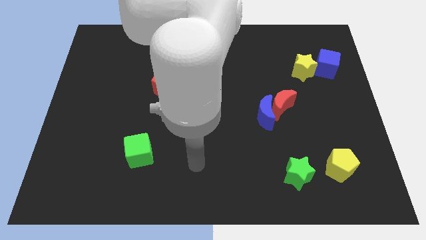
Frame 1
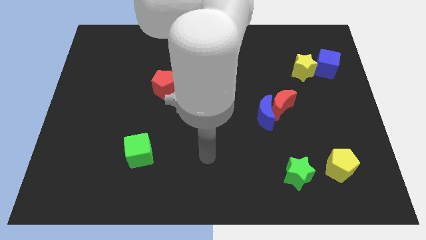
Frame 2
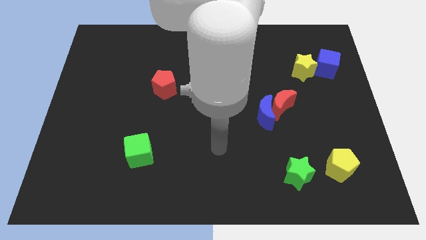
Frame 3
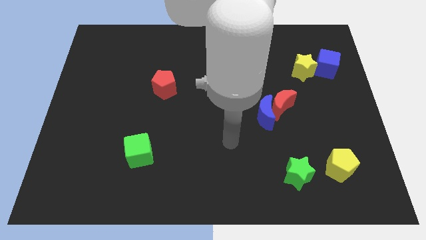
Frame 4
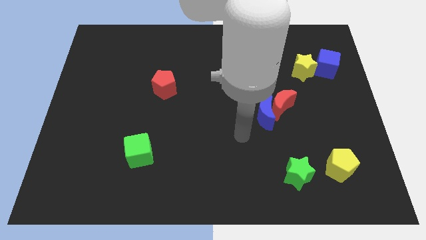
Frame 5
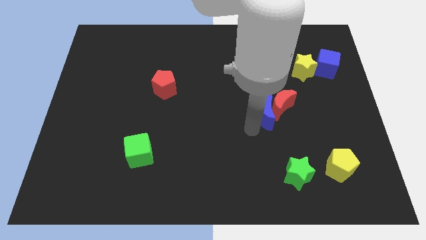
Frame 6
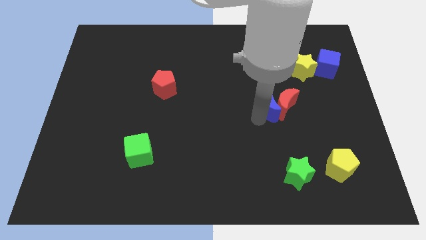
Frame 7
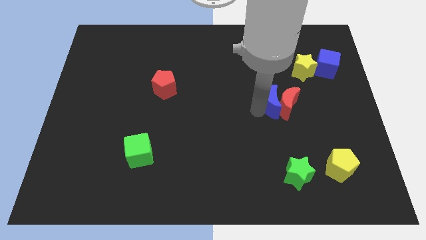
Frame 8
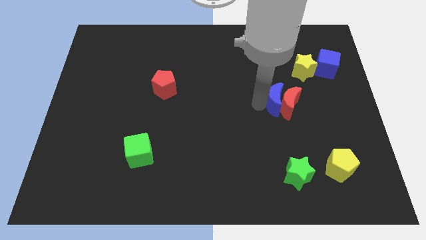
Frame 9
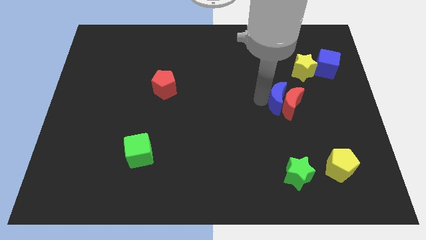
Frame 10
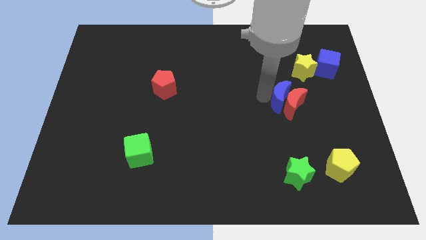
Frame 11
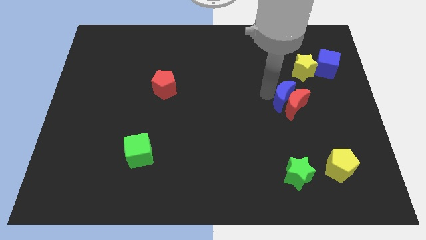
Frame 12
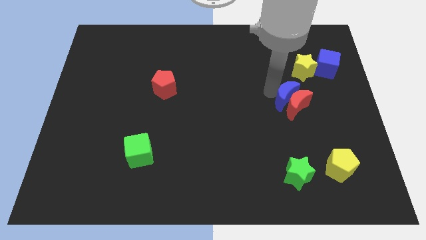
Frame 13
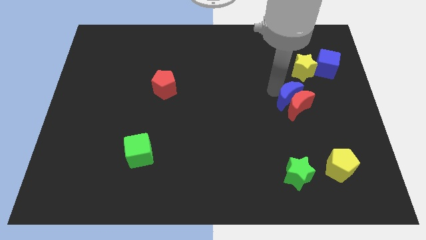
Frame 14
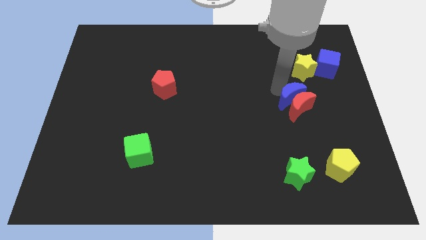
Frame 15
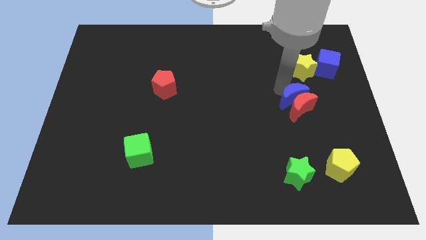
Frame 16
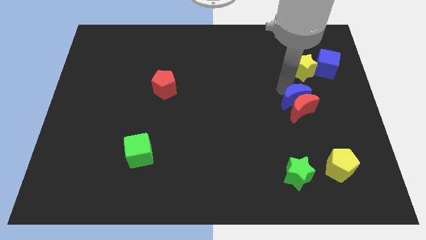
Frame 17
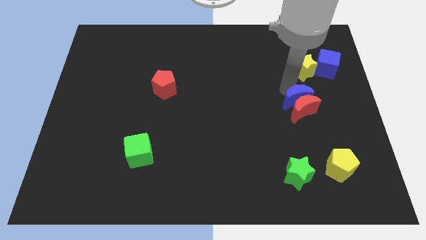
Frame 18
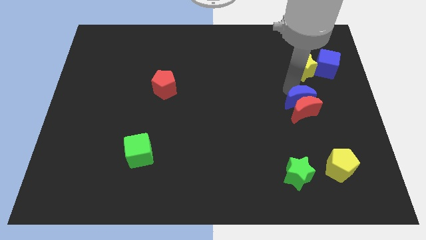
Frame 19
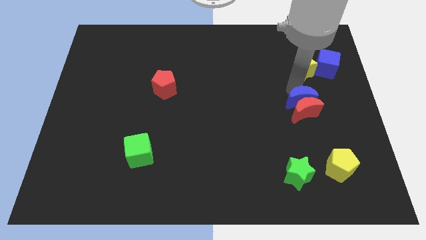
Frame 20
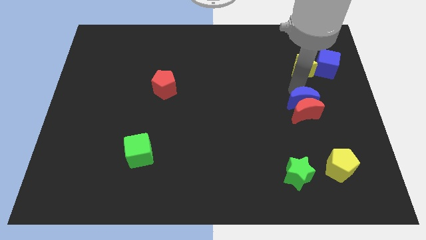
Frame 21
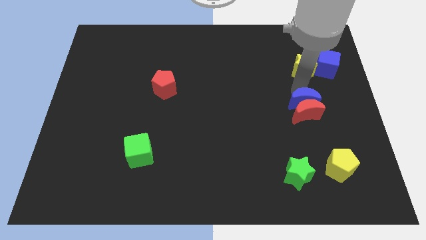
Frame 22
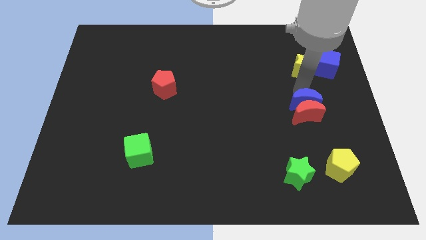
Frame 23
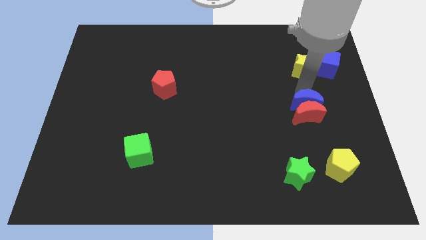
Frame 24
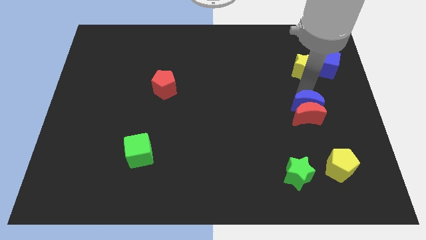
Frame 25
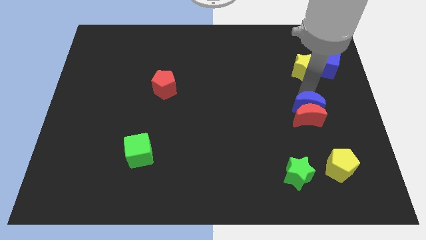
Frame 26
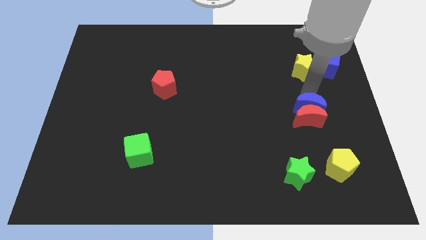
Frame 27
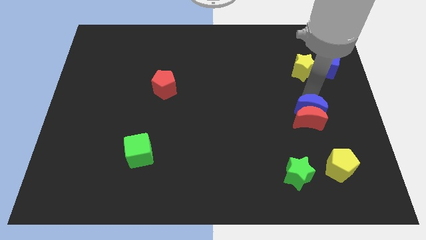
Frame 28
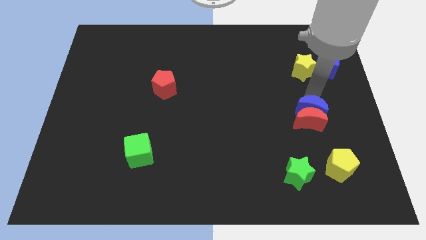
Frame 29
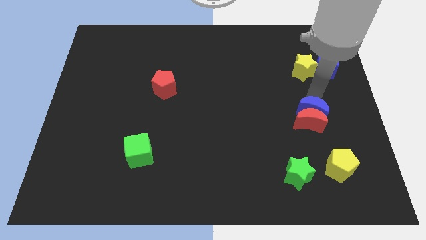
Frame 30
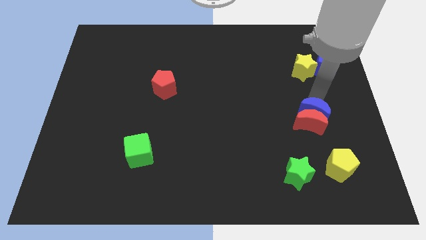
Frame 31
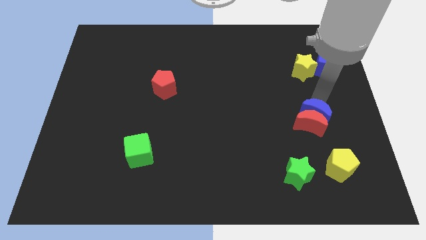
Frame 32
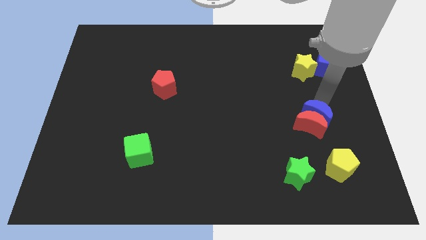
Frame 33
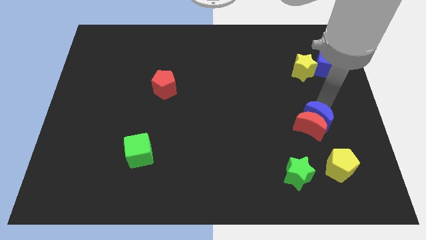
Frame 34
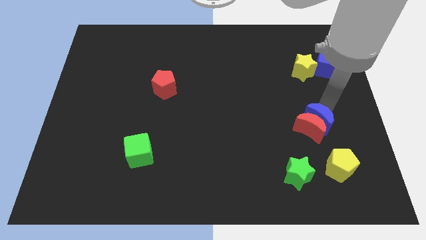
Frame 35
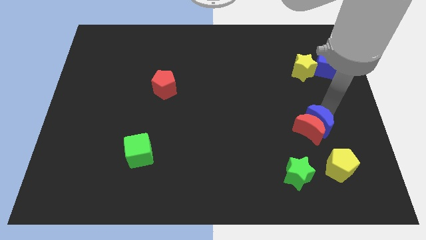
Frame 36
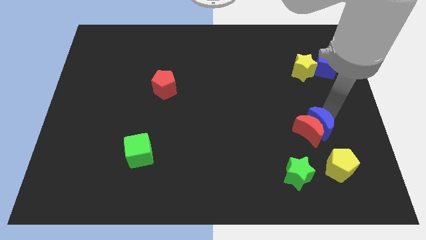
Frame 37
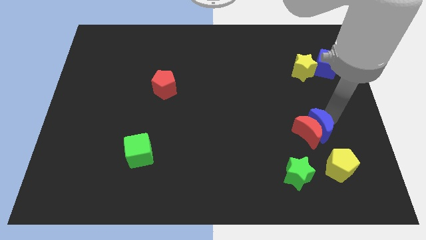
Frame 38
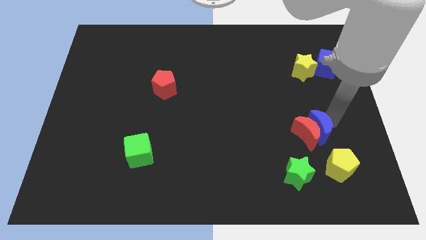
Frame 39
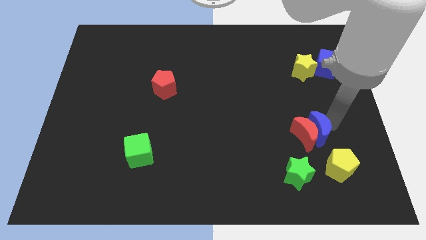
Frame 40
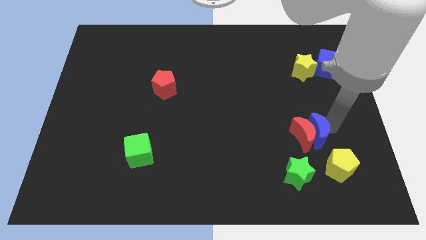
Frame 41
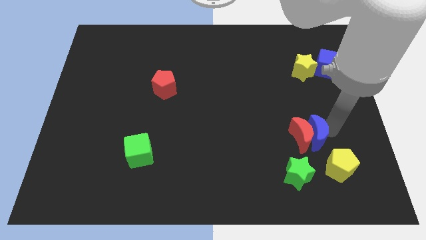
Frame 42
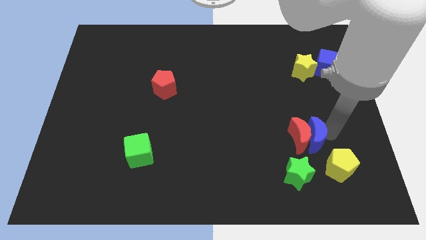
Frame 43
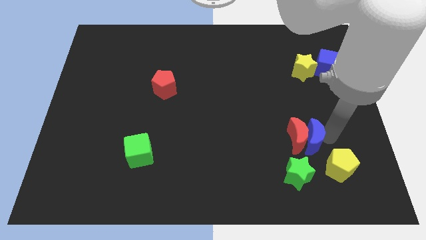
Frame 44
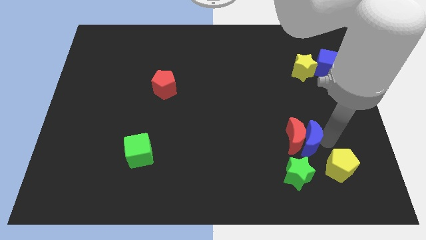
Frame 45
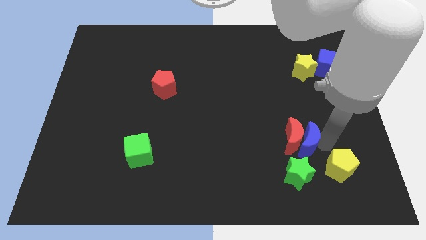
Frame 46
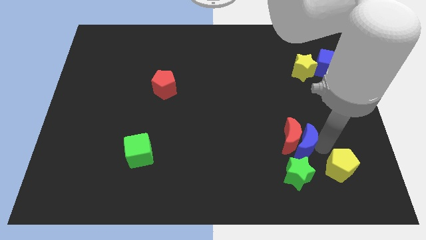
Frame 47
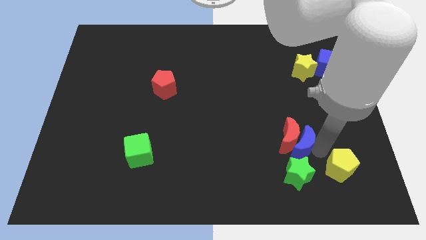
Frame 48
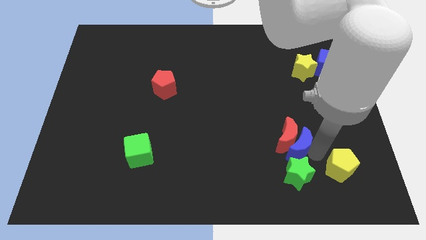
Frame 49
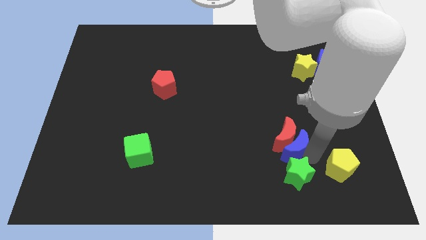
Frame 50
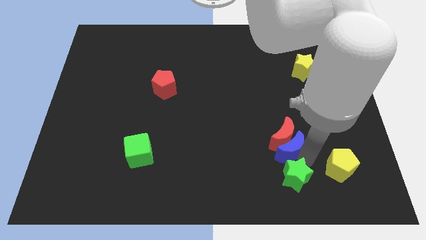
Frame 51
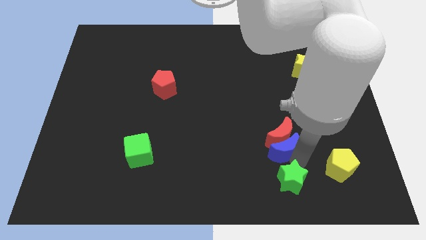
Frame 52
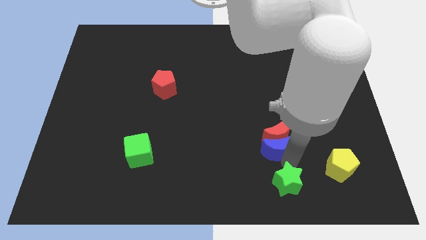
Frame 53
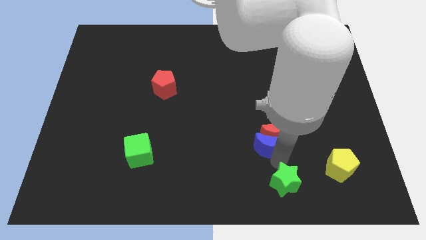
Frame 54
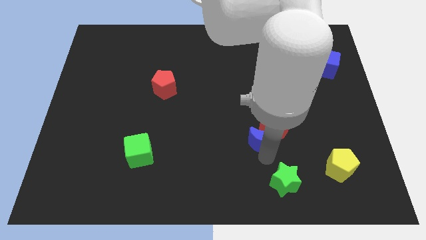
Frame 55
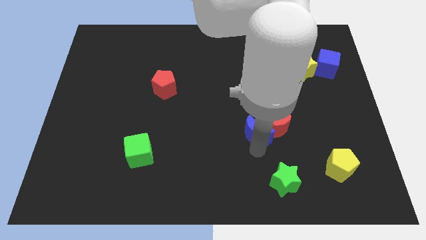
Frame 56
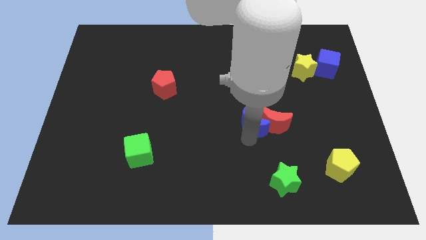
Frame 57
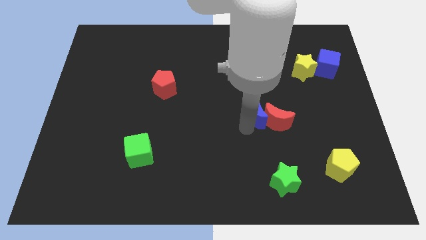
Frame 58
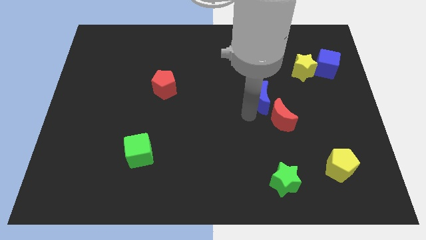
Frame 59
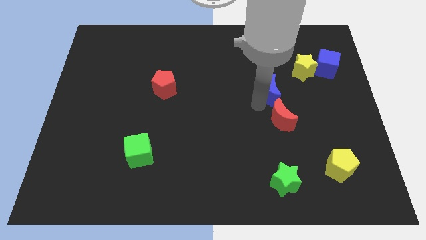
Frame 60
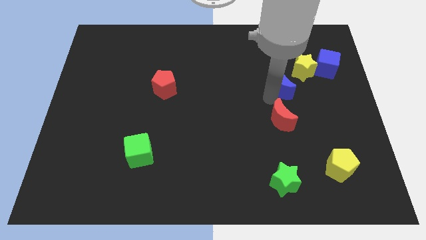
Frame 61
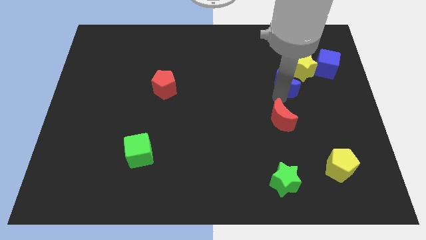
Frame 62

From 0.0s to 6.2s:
pull the red moon apart from the blue moon

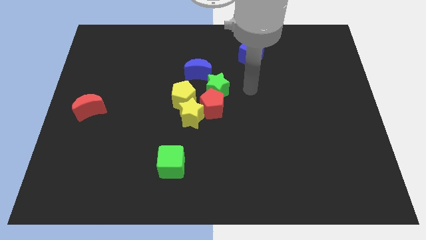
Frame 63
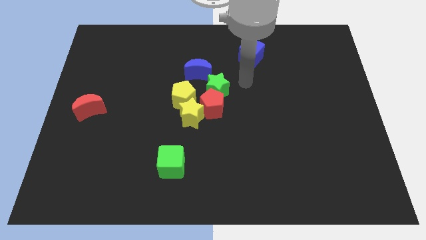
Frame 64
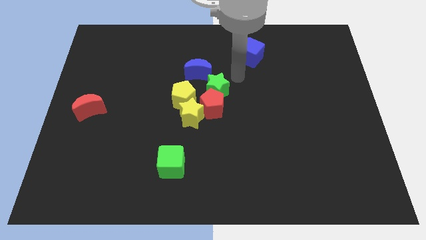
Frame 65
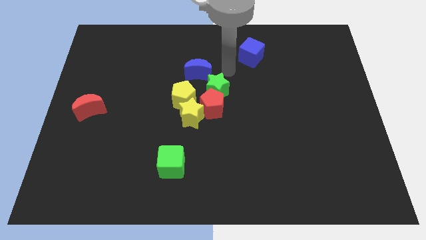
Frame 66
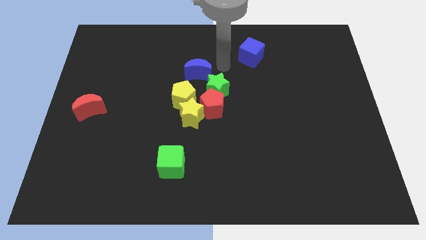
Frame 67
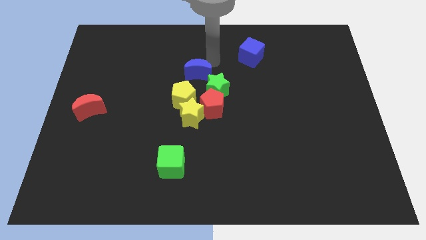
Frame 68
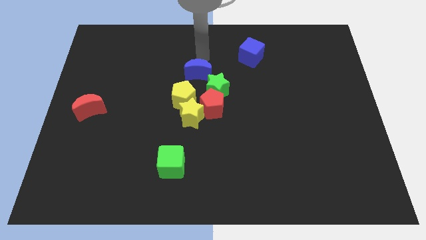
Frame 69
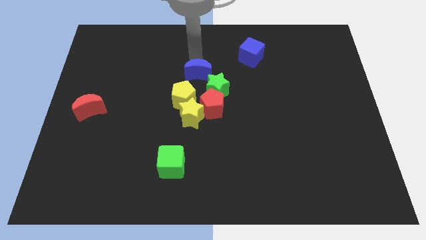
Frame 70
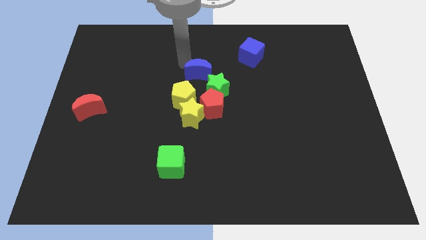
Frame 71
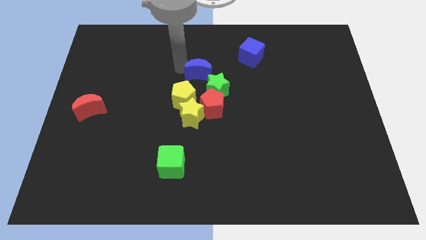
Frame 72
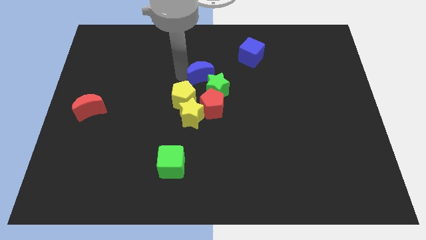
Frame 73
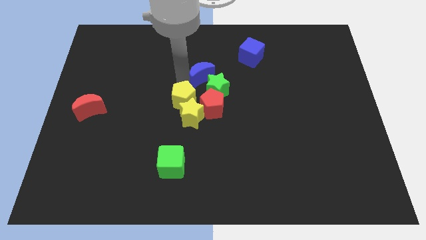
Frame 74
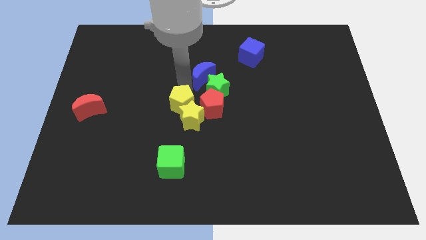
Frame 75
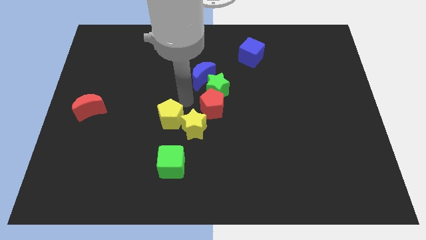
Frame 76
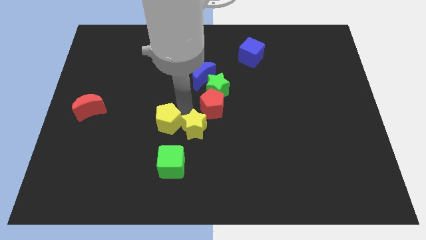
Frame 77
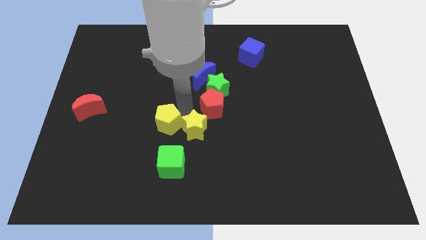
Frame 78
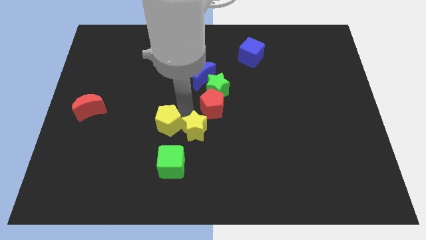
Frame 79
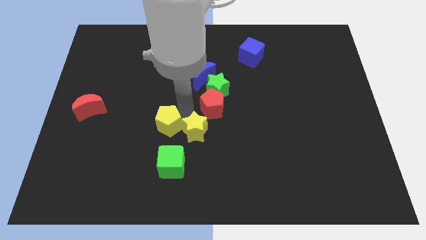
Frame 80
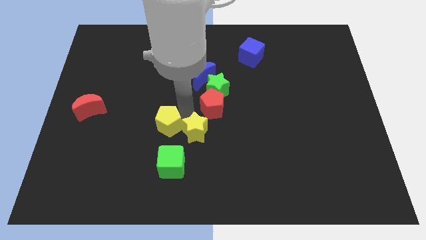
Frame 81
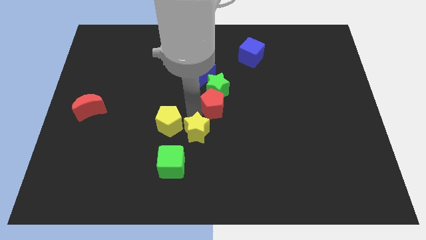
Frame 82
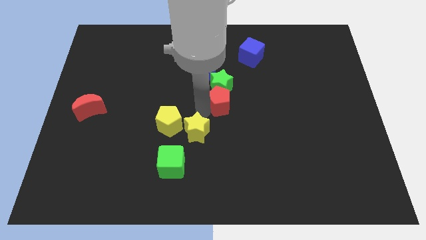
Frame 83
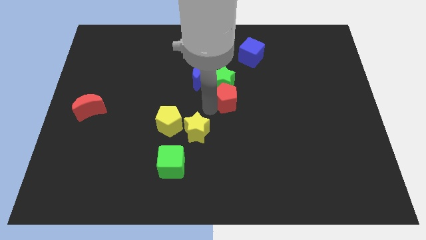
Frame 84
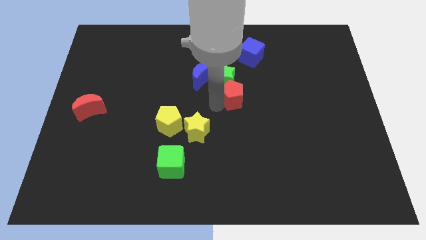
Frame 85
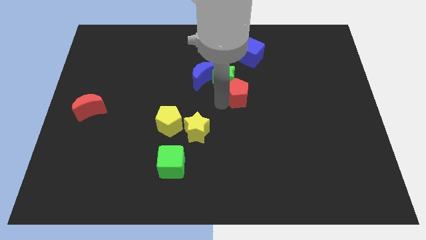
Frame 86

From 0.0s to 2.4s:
separate the red pentagon from the green star, yellow star, and yellow pentagon

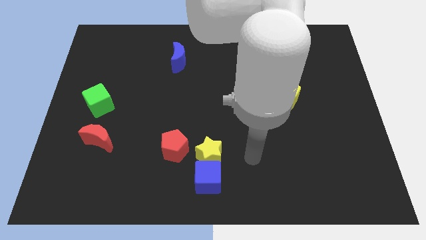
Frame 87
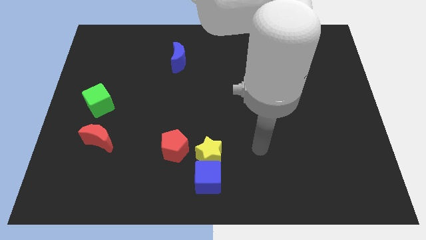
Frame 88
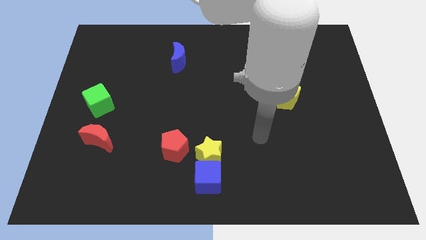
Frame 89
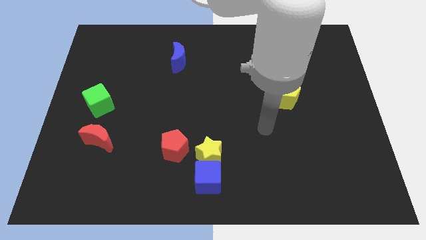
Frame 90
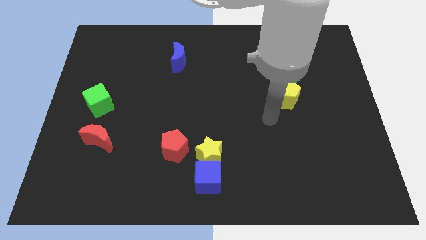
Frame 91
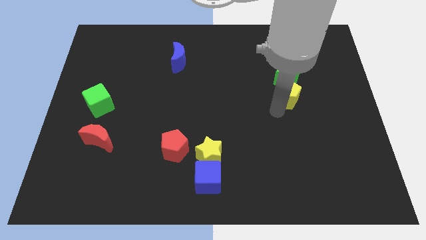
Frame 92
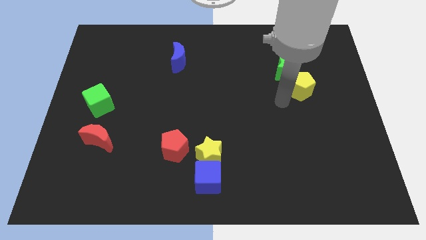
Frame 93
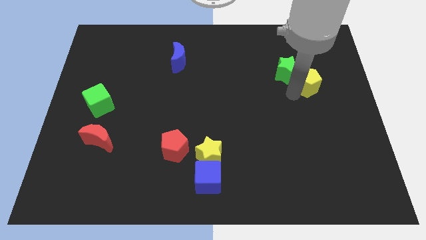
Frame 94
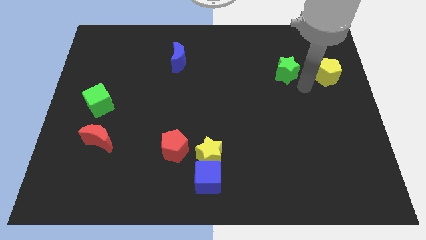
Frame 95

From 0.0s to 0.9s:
move the green star away from the yellow pentagon
